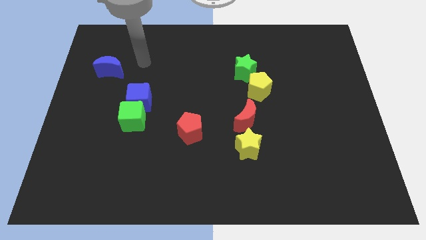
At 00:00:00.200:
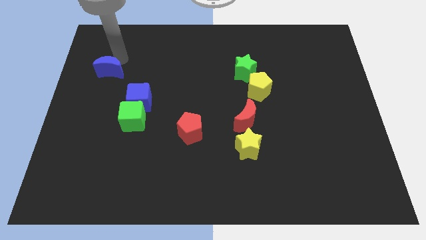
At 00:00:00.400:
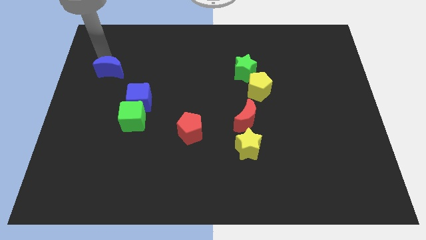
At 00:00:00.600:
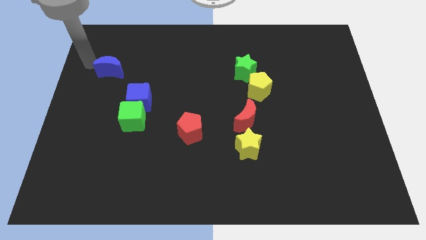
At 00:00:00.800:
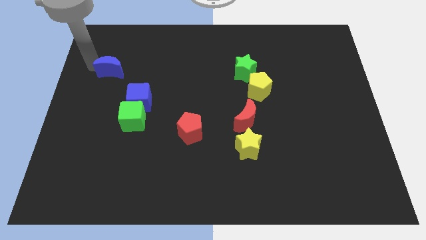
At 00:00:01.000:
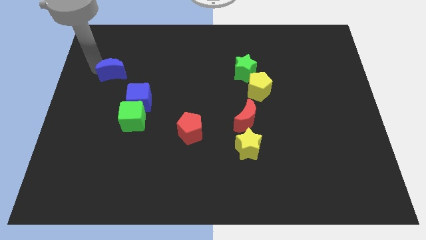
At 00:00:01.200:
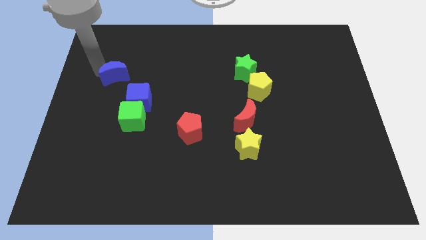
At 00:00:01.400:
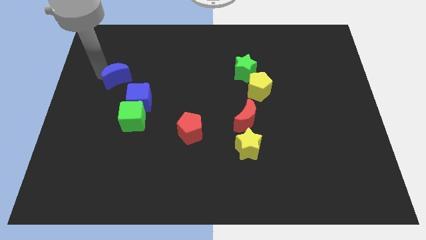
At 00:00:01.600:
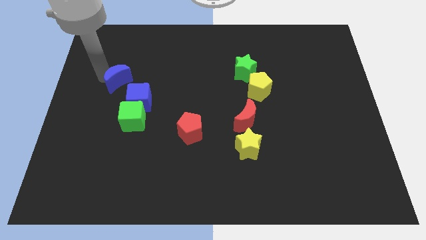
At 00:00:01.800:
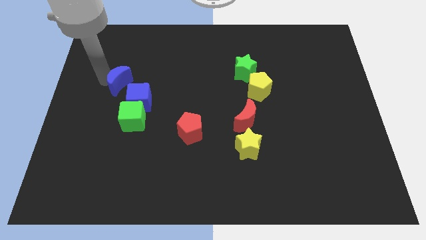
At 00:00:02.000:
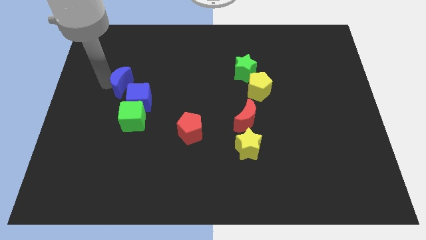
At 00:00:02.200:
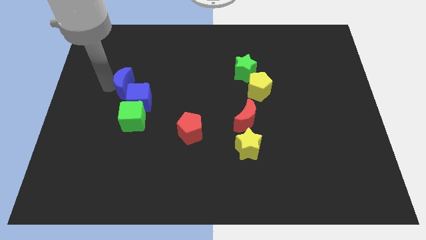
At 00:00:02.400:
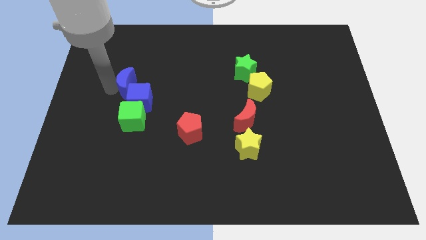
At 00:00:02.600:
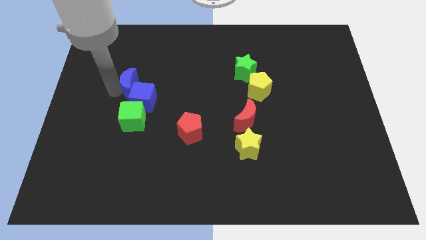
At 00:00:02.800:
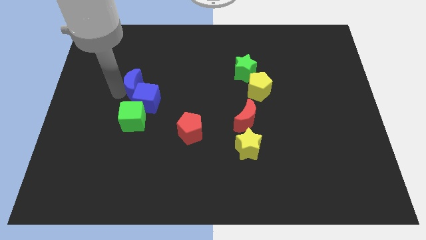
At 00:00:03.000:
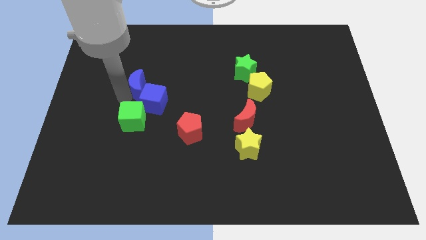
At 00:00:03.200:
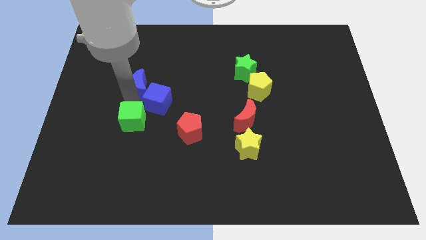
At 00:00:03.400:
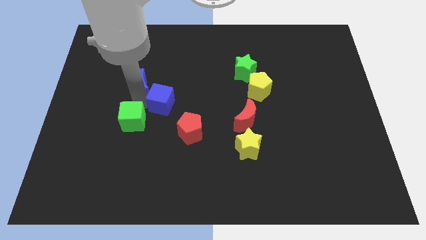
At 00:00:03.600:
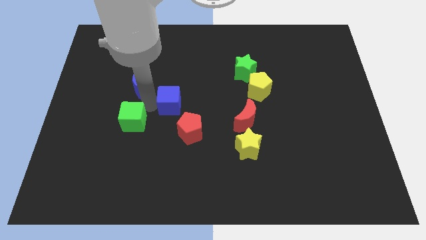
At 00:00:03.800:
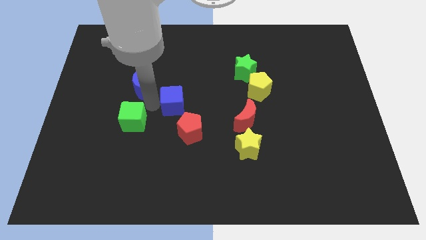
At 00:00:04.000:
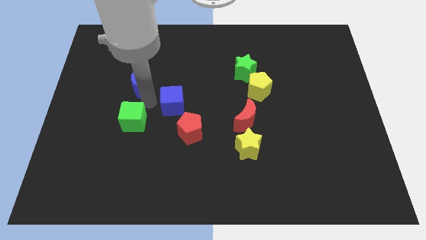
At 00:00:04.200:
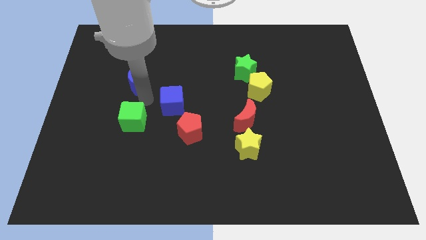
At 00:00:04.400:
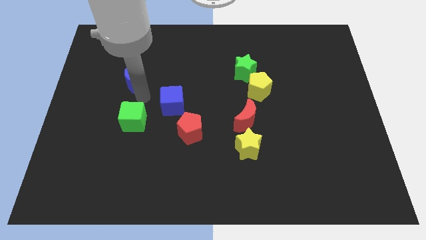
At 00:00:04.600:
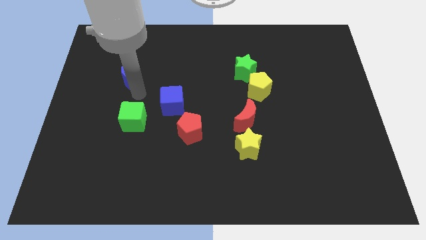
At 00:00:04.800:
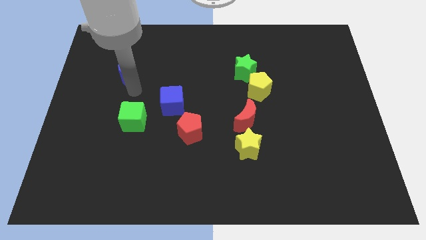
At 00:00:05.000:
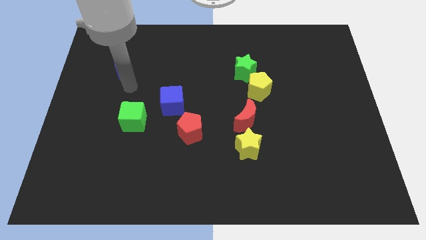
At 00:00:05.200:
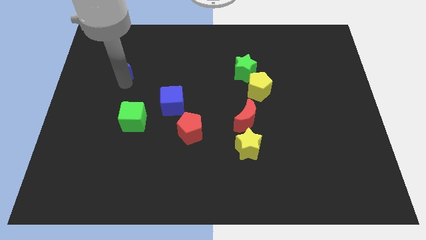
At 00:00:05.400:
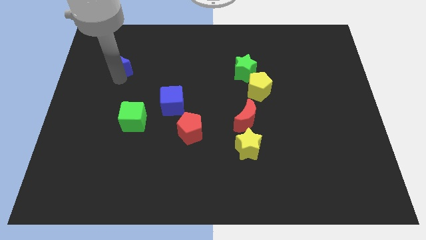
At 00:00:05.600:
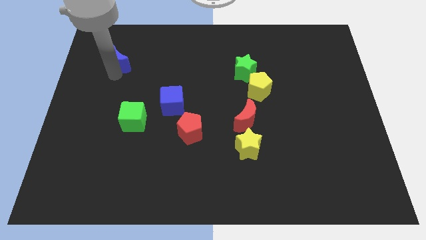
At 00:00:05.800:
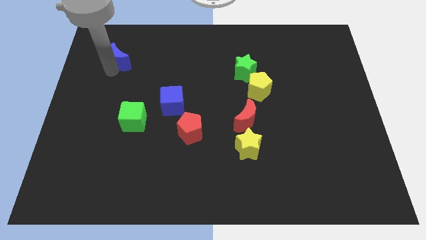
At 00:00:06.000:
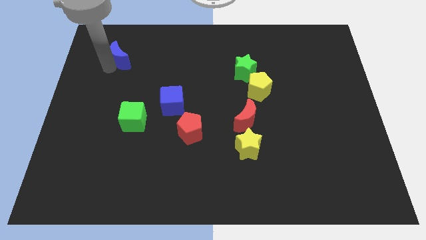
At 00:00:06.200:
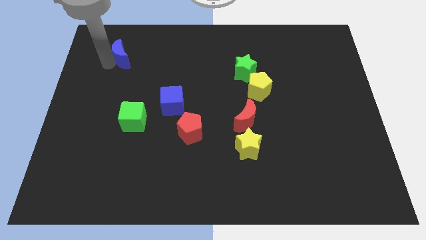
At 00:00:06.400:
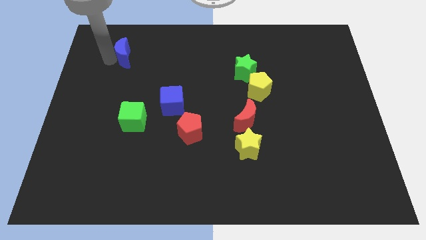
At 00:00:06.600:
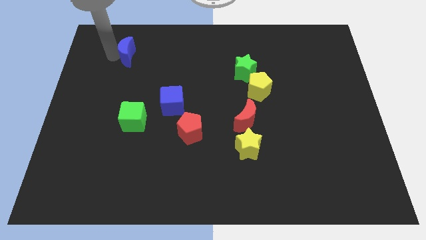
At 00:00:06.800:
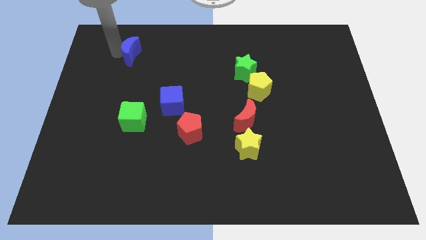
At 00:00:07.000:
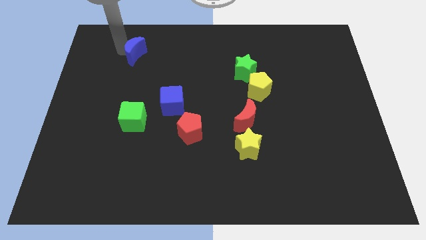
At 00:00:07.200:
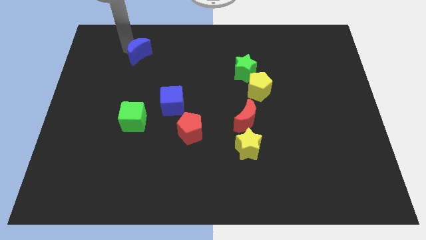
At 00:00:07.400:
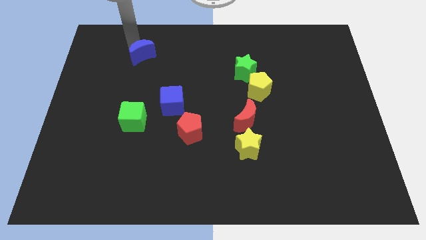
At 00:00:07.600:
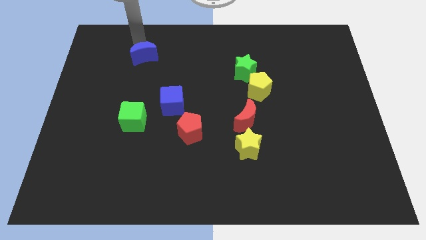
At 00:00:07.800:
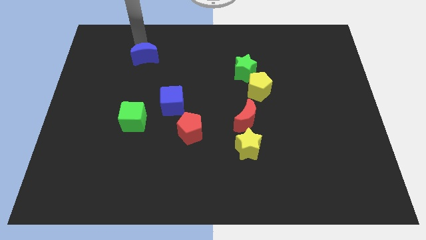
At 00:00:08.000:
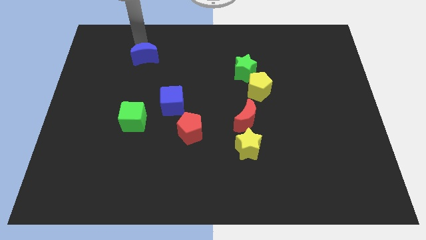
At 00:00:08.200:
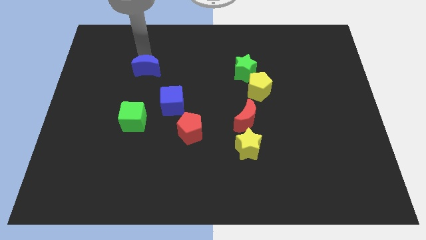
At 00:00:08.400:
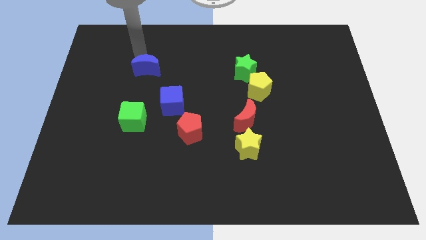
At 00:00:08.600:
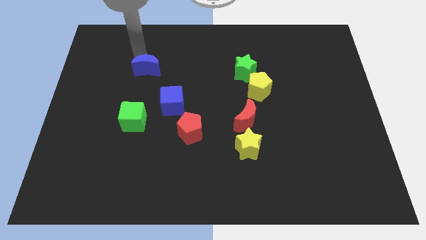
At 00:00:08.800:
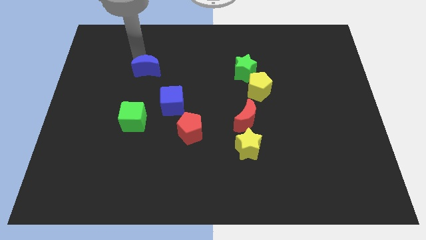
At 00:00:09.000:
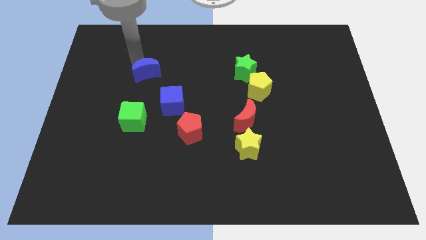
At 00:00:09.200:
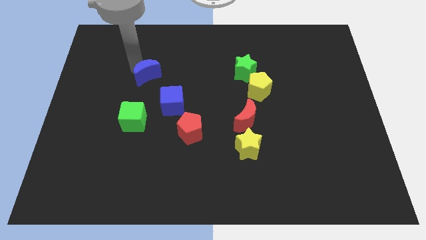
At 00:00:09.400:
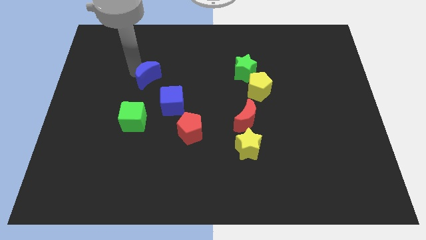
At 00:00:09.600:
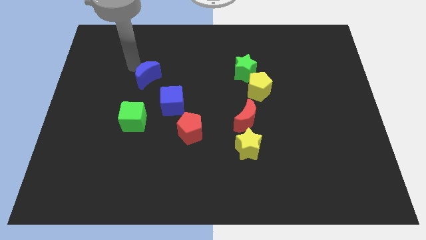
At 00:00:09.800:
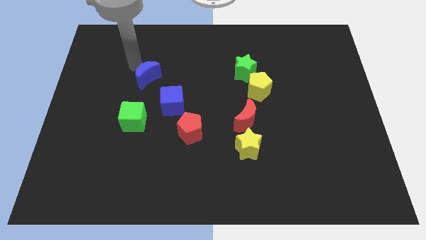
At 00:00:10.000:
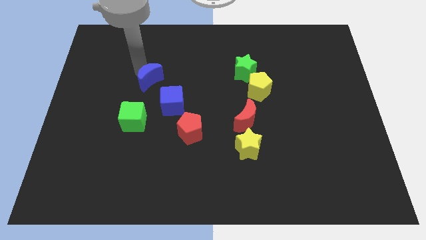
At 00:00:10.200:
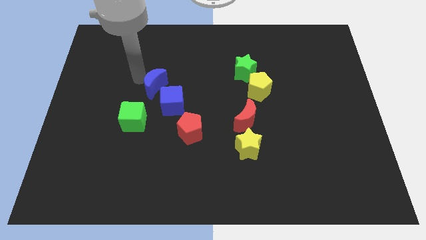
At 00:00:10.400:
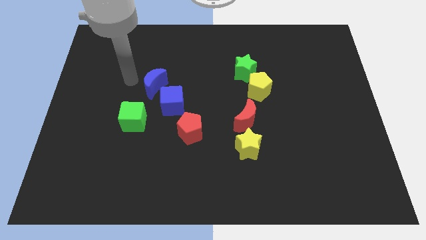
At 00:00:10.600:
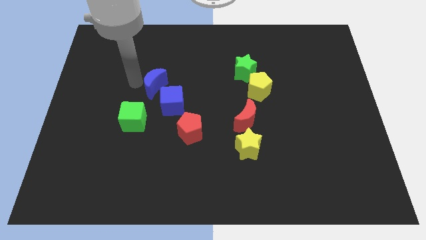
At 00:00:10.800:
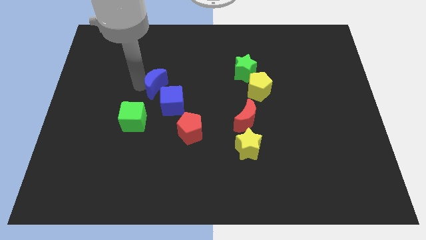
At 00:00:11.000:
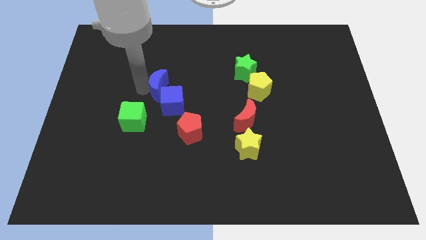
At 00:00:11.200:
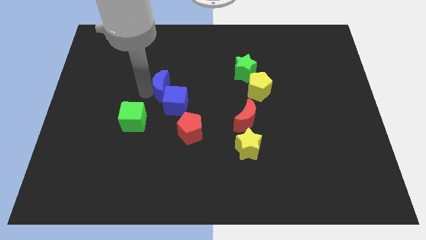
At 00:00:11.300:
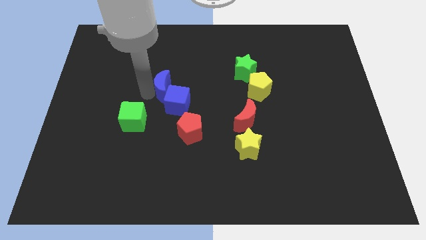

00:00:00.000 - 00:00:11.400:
push the blue moon to the center of the board
